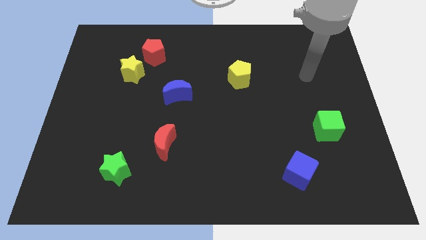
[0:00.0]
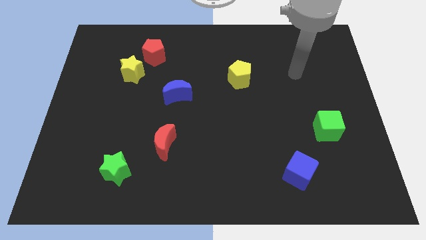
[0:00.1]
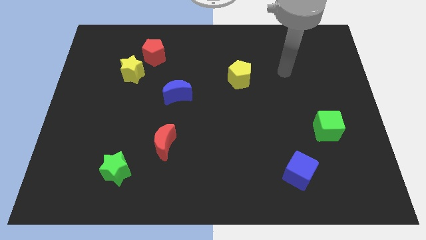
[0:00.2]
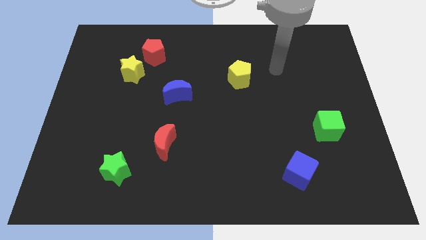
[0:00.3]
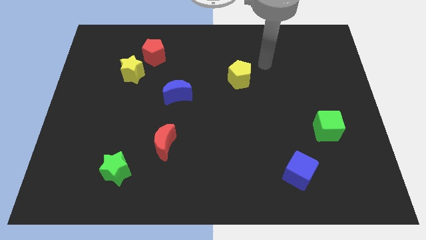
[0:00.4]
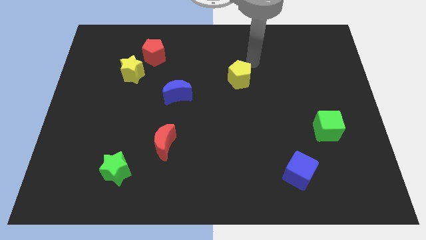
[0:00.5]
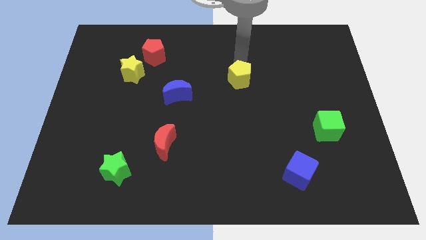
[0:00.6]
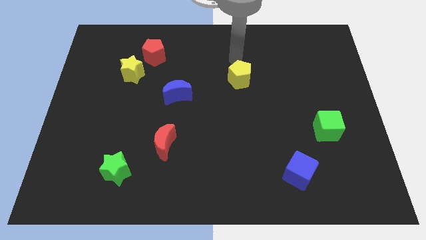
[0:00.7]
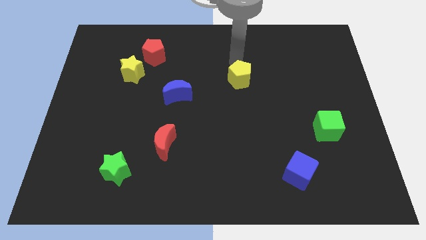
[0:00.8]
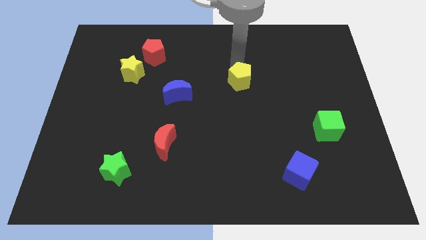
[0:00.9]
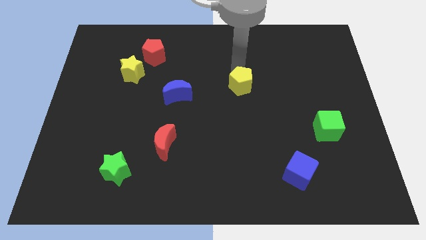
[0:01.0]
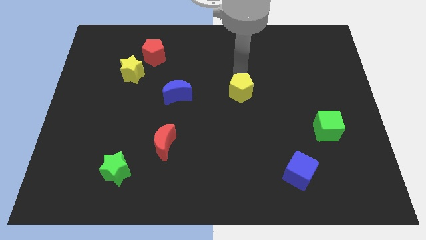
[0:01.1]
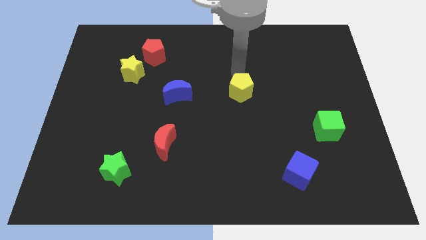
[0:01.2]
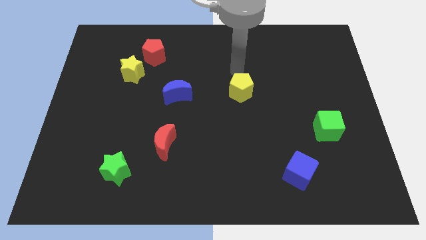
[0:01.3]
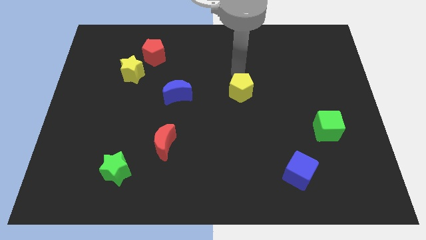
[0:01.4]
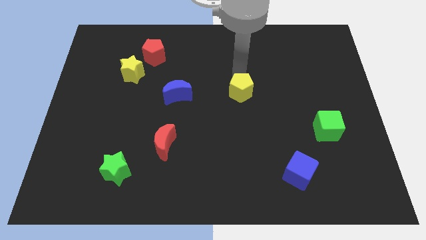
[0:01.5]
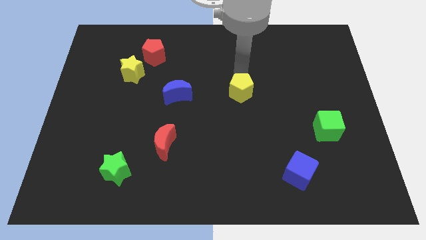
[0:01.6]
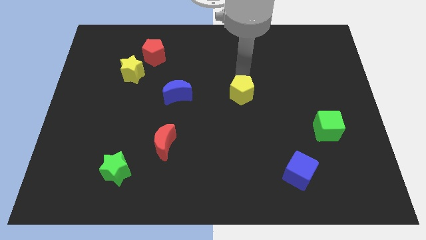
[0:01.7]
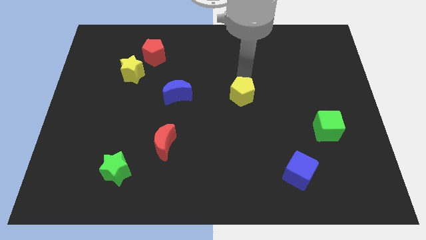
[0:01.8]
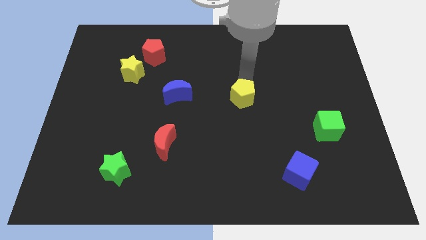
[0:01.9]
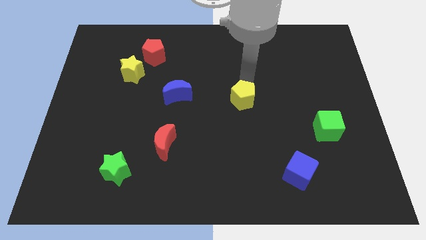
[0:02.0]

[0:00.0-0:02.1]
slide the yellow pentagon a little downwards

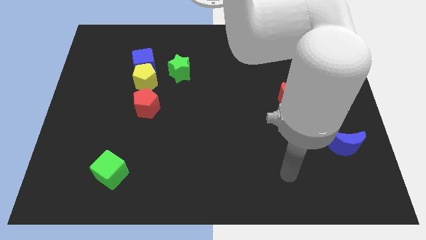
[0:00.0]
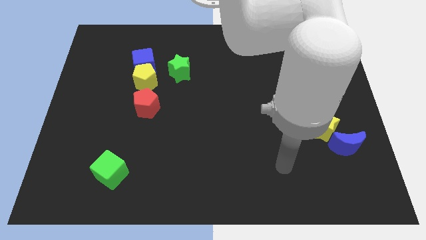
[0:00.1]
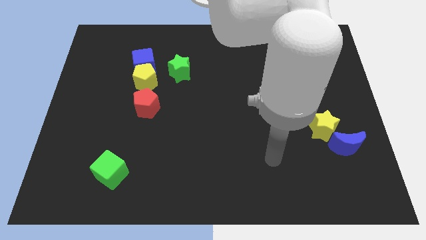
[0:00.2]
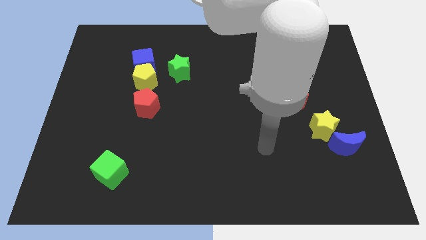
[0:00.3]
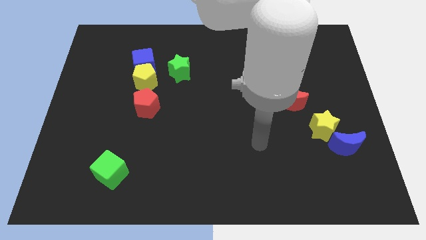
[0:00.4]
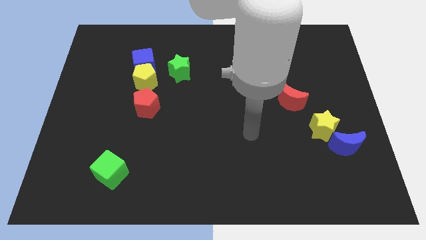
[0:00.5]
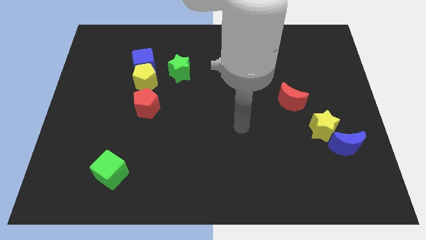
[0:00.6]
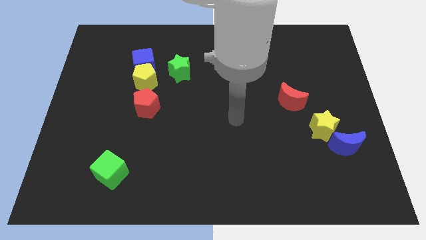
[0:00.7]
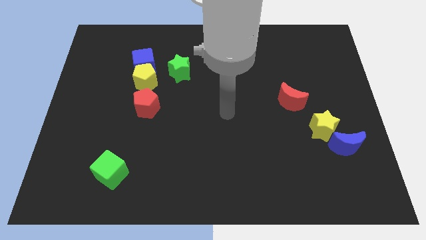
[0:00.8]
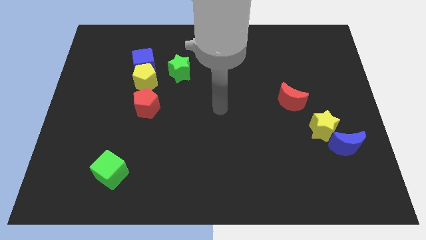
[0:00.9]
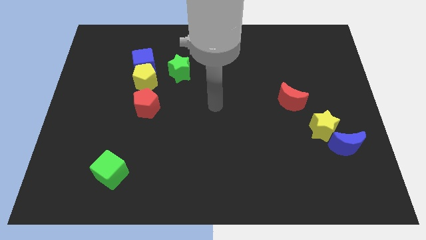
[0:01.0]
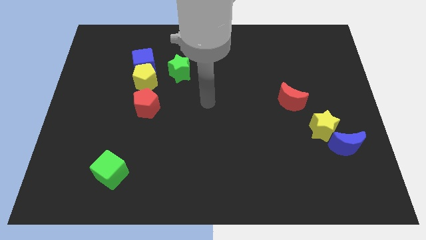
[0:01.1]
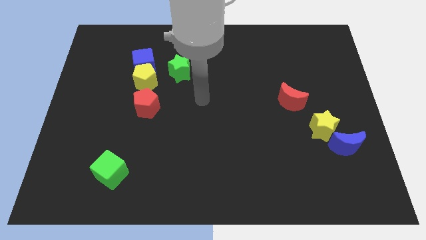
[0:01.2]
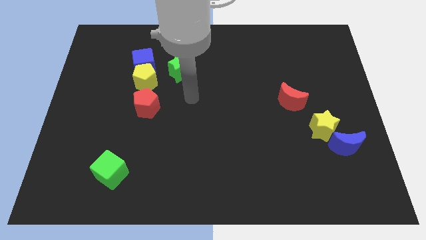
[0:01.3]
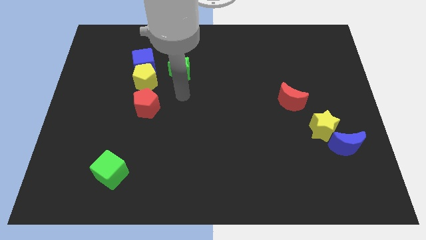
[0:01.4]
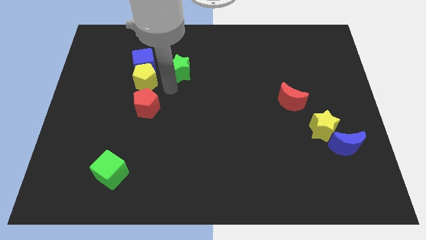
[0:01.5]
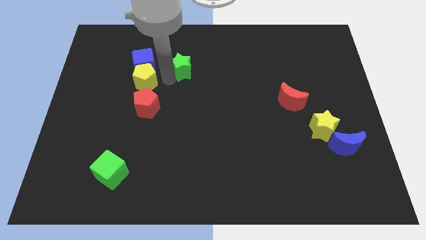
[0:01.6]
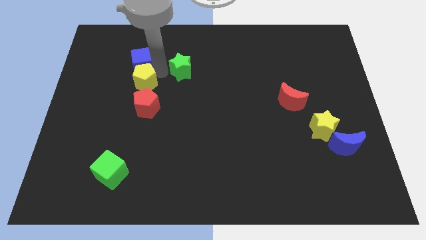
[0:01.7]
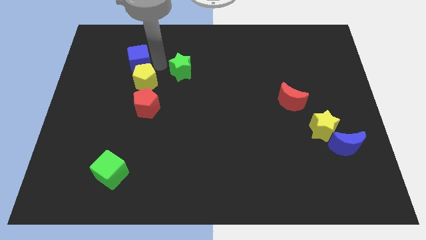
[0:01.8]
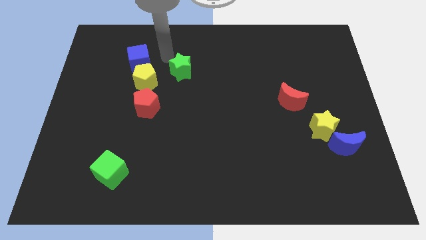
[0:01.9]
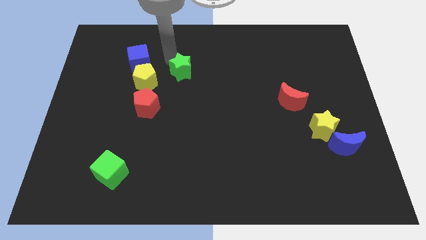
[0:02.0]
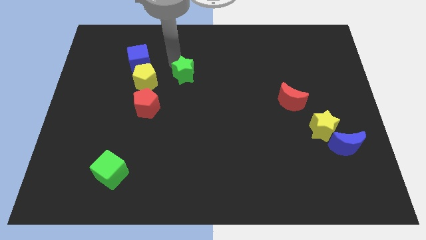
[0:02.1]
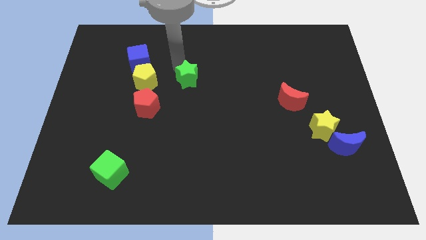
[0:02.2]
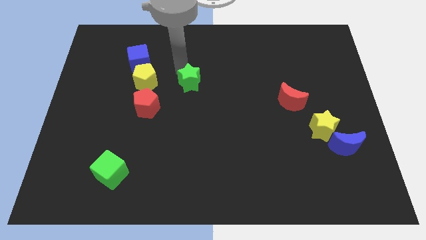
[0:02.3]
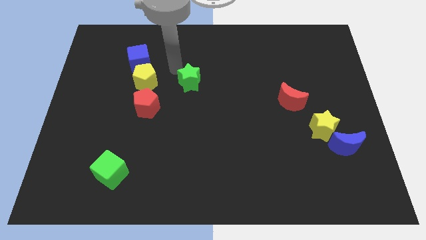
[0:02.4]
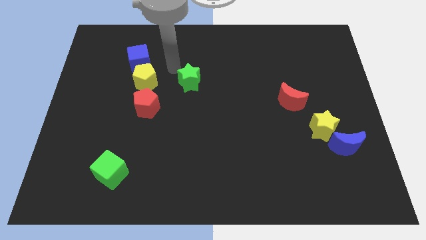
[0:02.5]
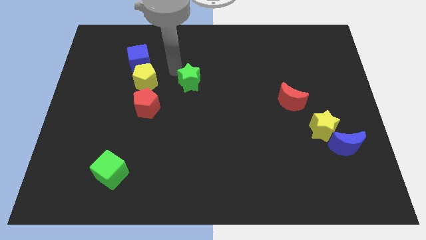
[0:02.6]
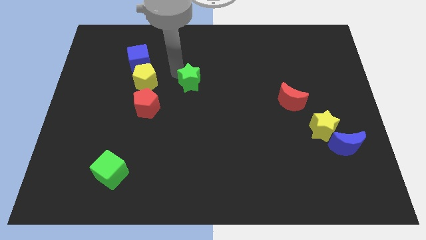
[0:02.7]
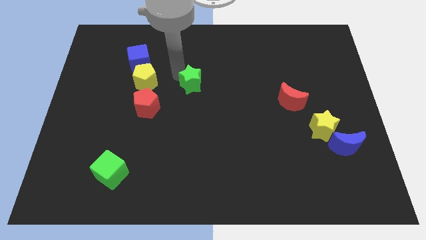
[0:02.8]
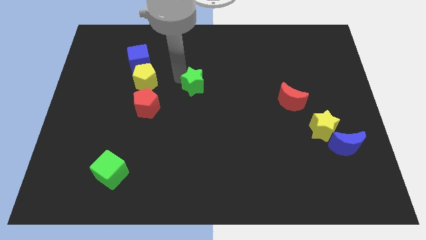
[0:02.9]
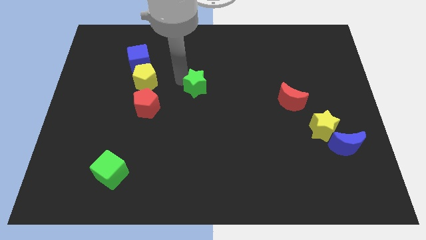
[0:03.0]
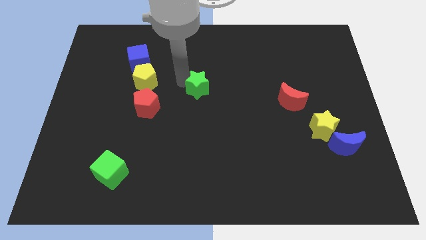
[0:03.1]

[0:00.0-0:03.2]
slightly slide the green star down and then to the right

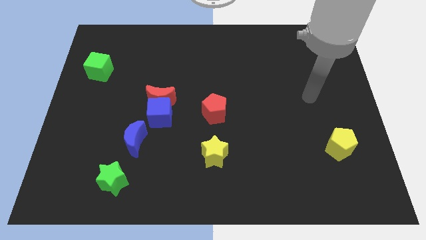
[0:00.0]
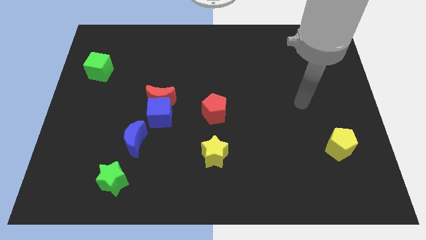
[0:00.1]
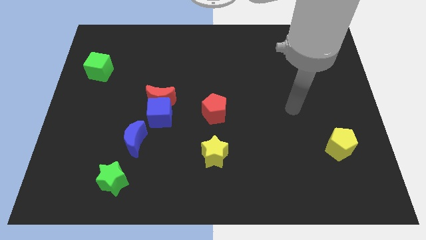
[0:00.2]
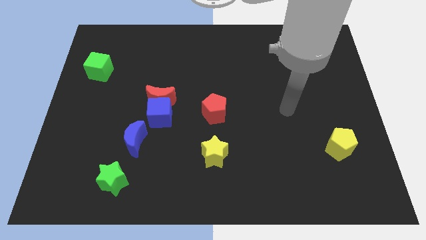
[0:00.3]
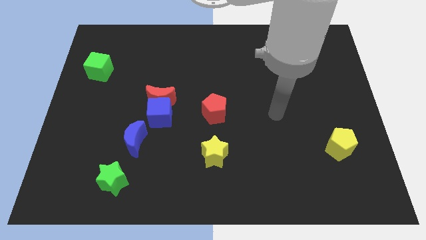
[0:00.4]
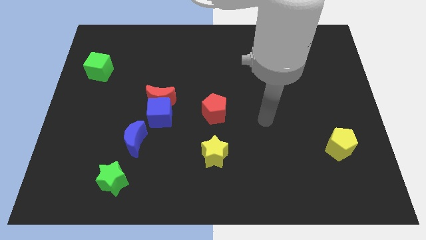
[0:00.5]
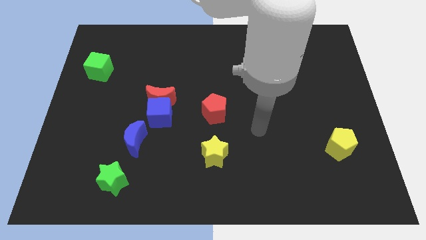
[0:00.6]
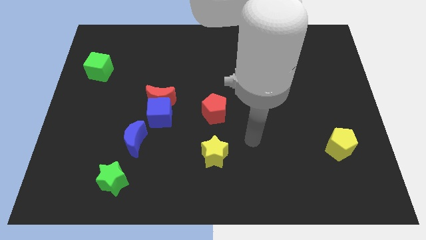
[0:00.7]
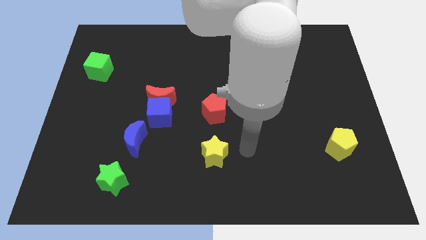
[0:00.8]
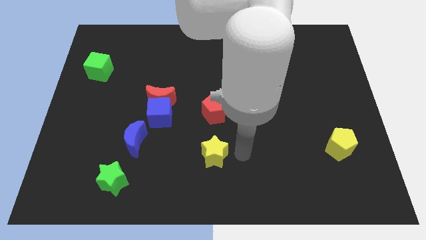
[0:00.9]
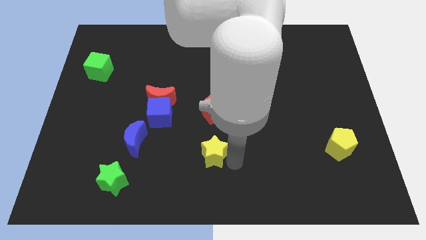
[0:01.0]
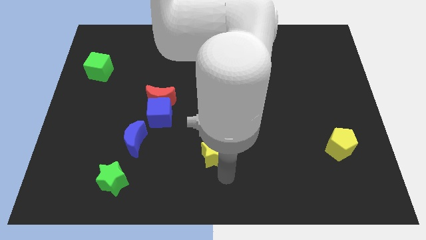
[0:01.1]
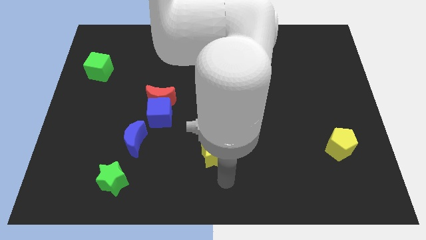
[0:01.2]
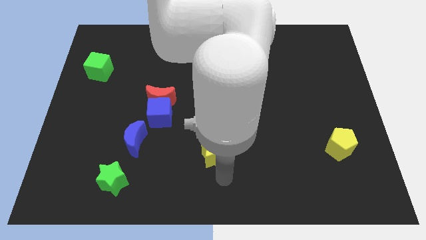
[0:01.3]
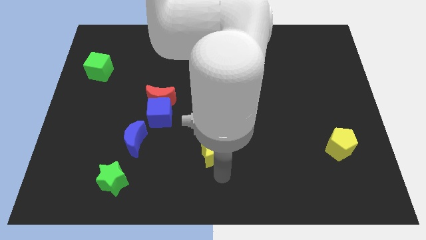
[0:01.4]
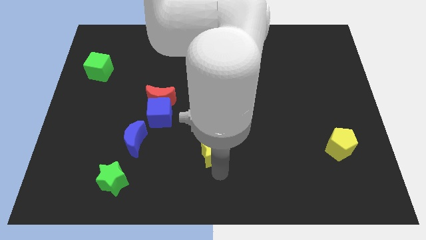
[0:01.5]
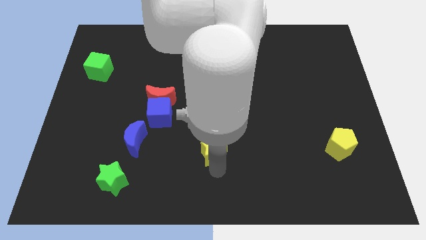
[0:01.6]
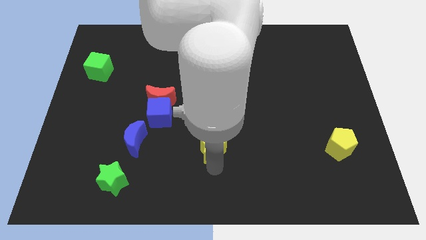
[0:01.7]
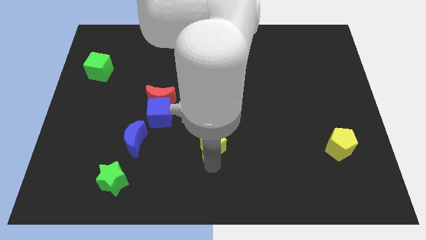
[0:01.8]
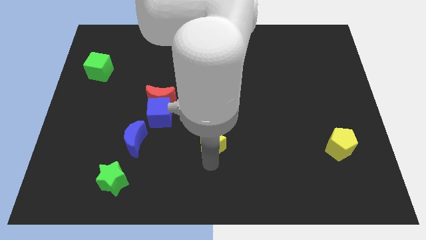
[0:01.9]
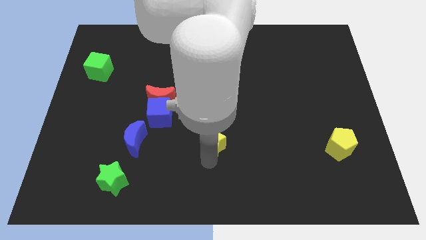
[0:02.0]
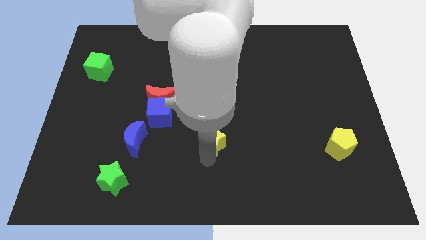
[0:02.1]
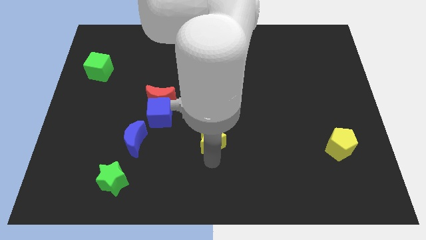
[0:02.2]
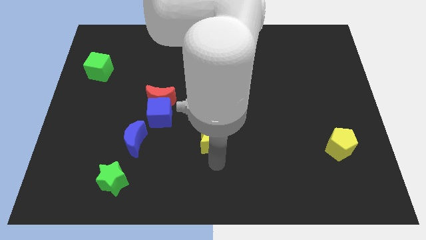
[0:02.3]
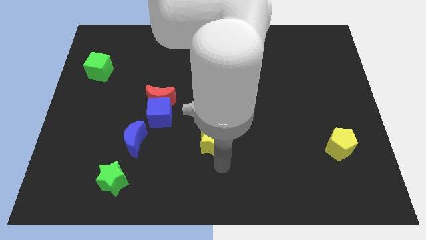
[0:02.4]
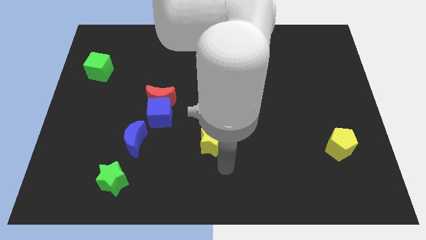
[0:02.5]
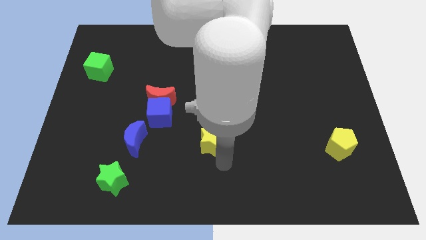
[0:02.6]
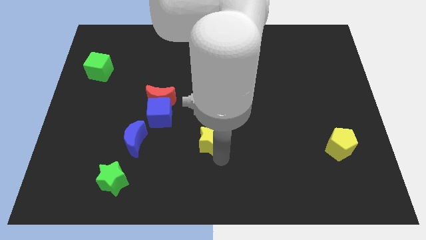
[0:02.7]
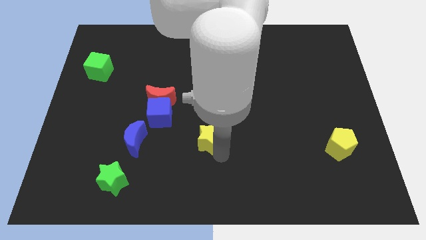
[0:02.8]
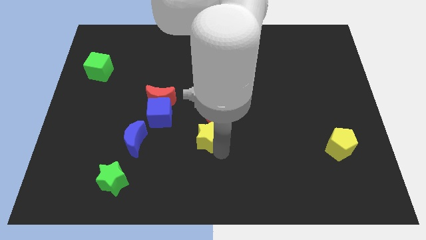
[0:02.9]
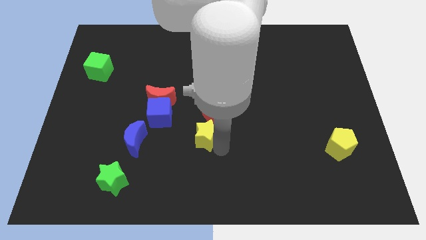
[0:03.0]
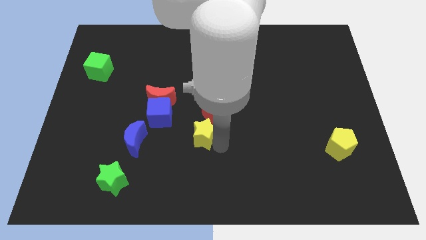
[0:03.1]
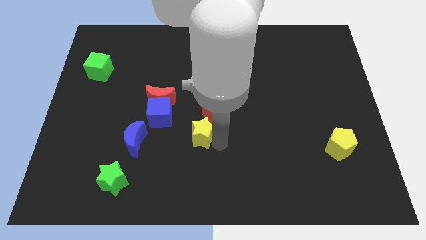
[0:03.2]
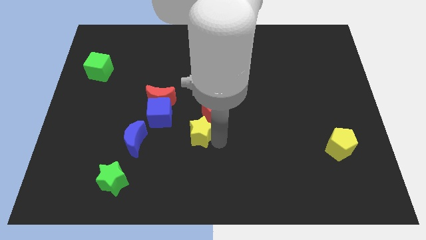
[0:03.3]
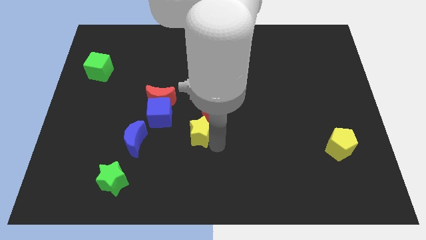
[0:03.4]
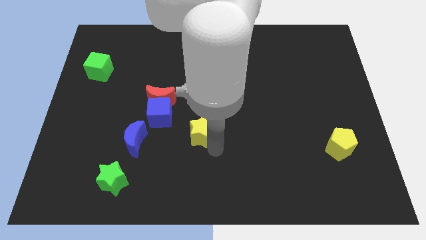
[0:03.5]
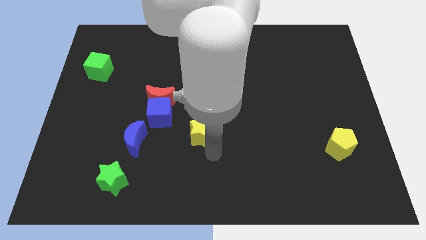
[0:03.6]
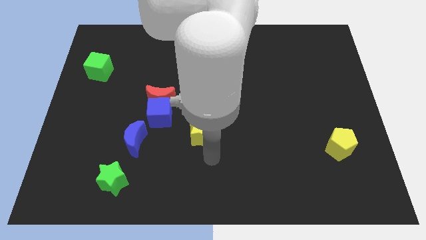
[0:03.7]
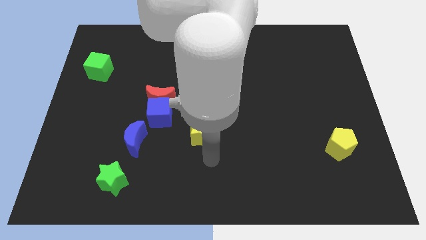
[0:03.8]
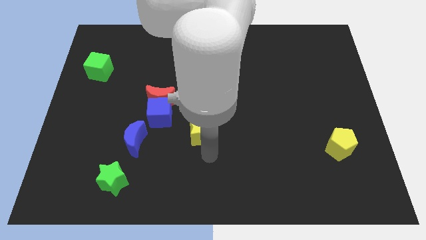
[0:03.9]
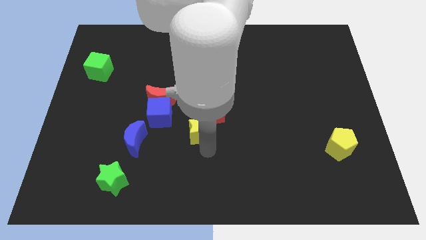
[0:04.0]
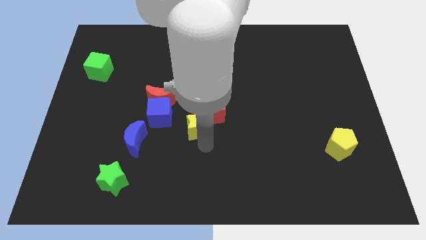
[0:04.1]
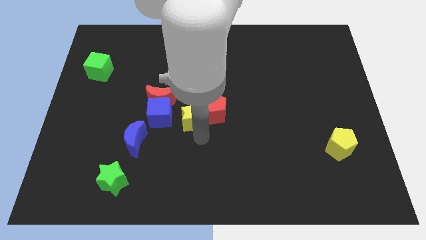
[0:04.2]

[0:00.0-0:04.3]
slightly slide the yellow star upwards
